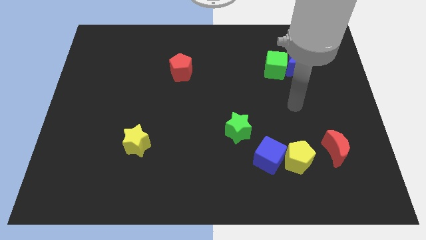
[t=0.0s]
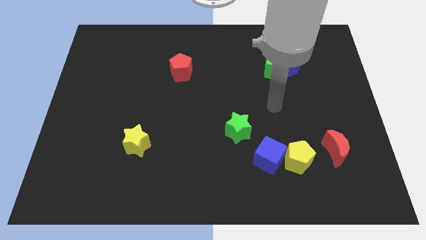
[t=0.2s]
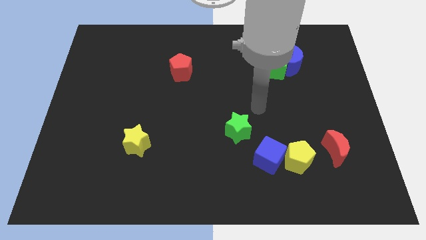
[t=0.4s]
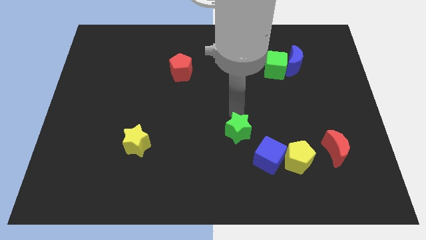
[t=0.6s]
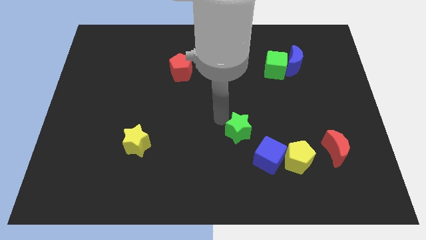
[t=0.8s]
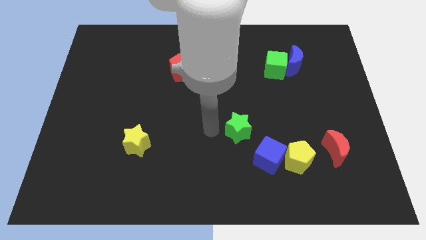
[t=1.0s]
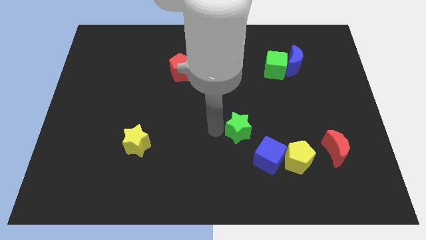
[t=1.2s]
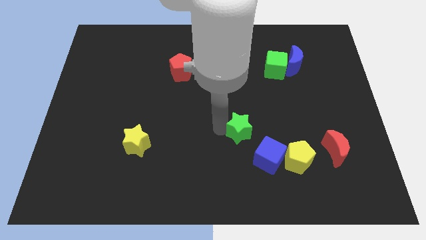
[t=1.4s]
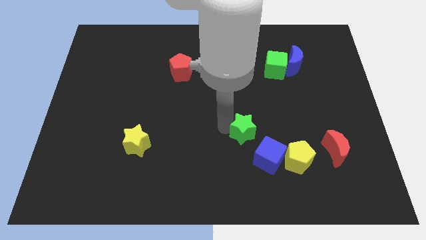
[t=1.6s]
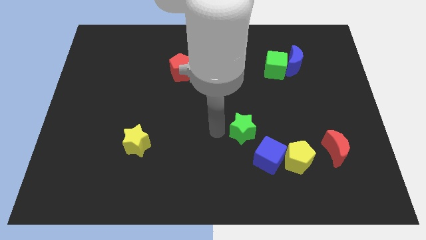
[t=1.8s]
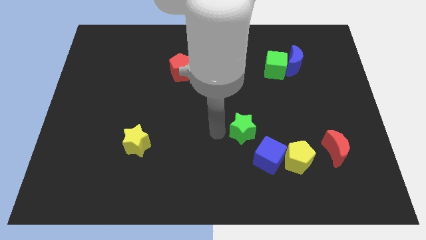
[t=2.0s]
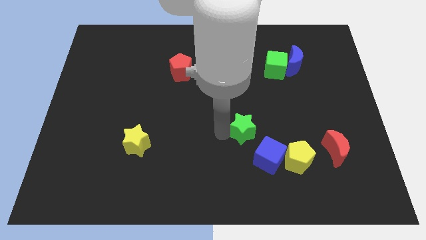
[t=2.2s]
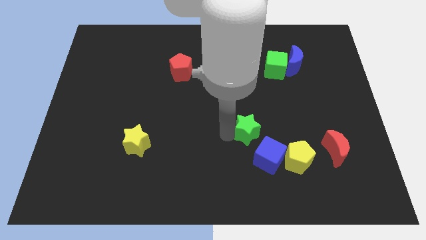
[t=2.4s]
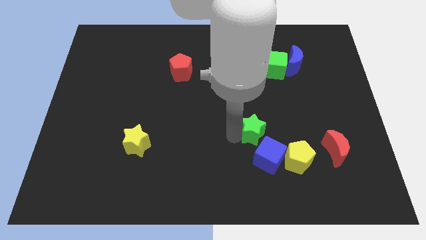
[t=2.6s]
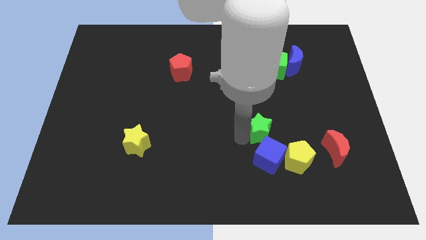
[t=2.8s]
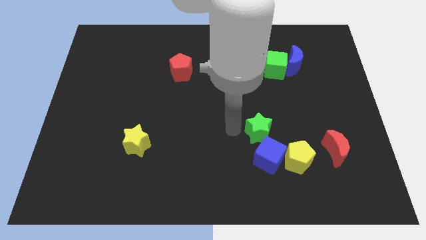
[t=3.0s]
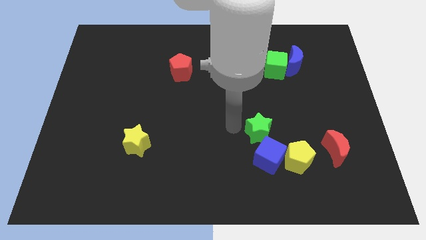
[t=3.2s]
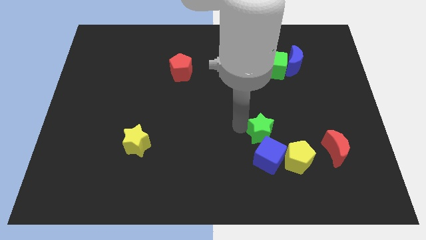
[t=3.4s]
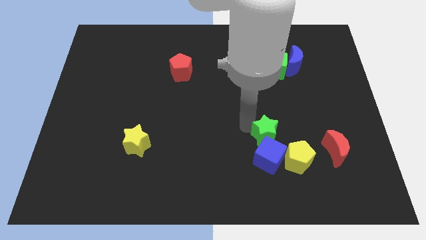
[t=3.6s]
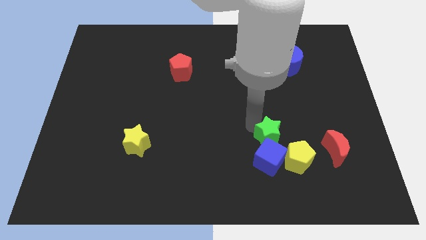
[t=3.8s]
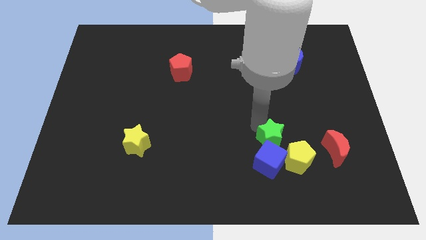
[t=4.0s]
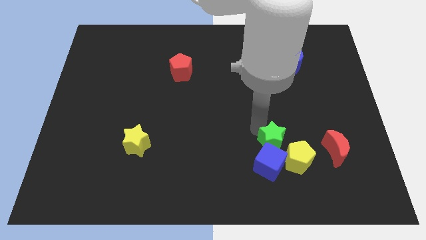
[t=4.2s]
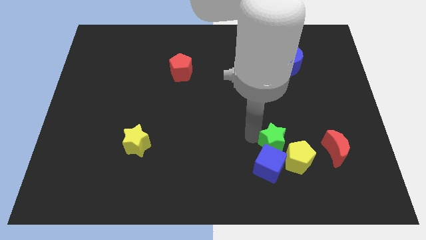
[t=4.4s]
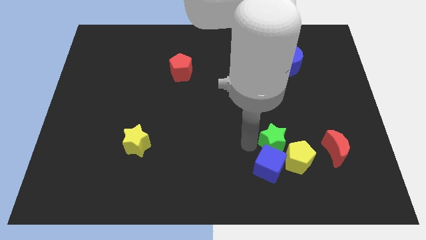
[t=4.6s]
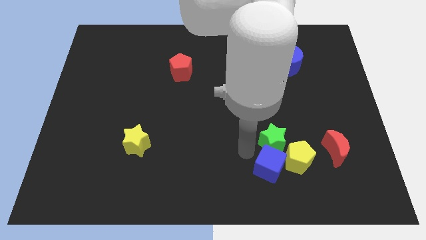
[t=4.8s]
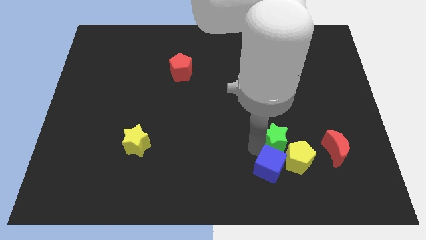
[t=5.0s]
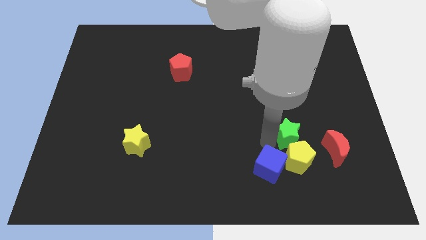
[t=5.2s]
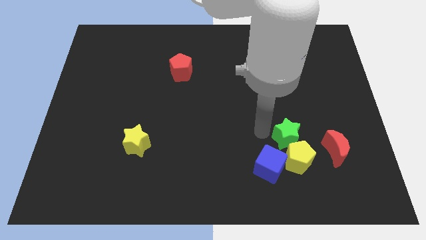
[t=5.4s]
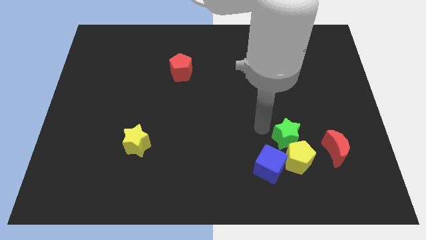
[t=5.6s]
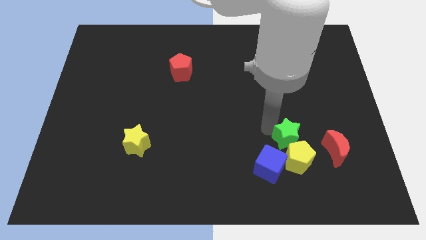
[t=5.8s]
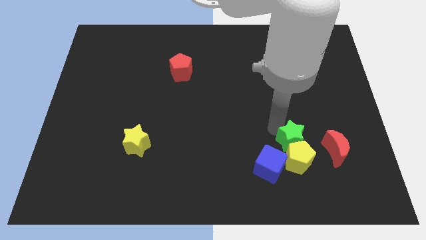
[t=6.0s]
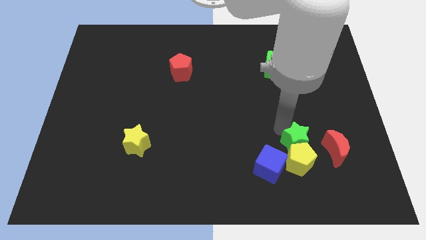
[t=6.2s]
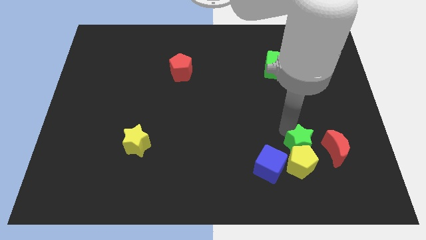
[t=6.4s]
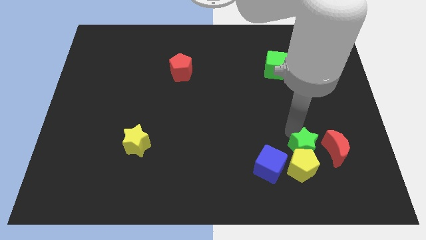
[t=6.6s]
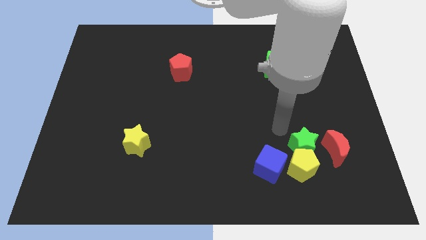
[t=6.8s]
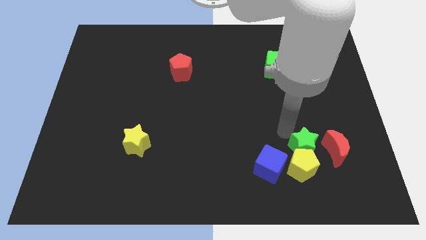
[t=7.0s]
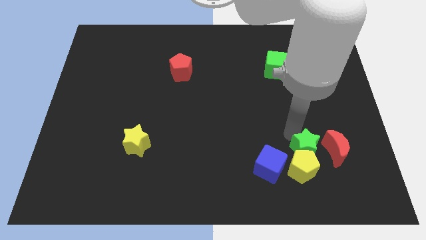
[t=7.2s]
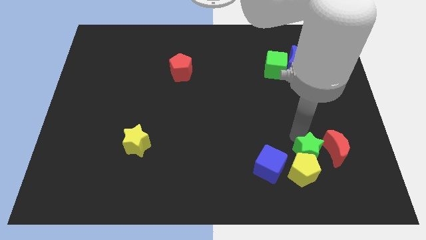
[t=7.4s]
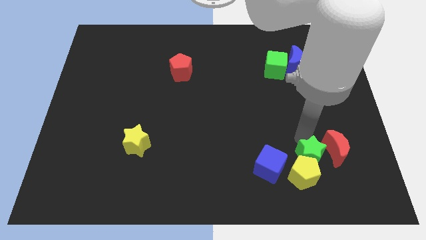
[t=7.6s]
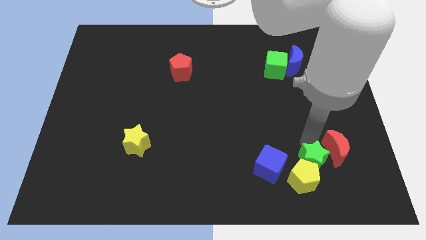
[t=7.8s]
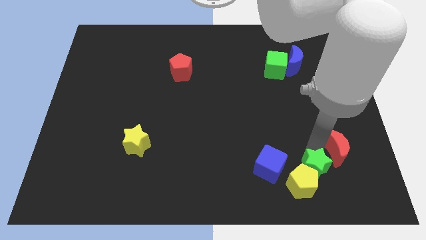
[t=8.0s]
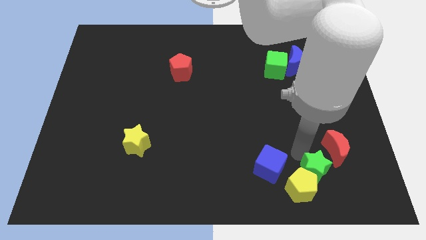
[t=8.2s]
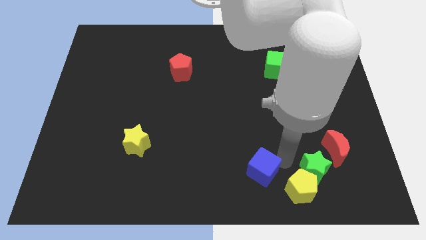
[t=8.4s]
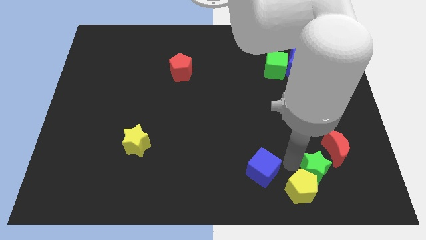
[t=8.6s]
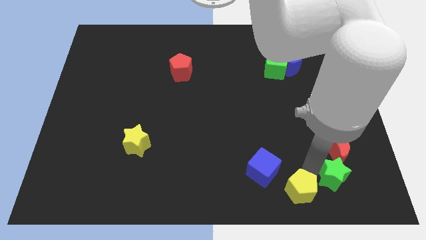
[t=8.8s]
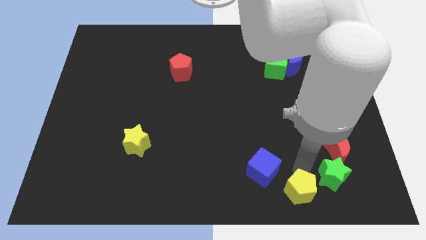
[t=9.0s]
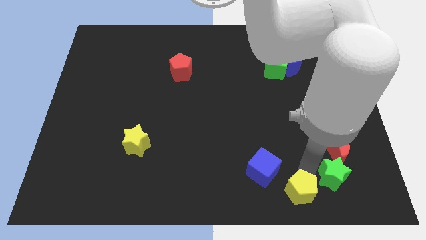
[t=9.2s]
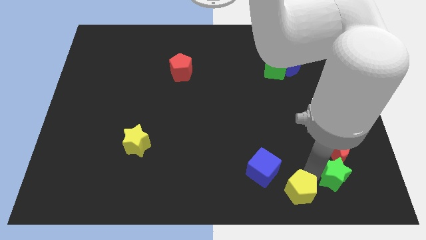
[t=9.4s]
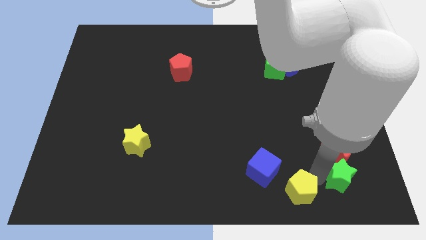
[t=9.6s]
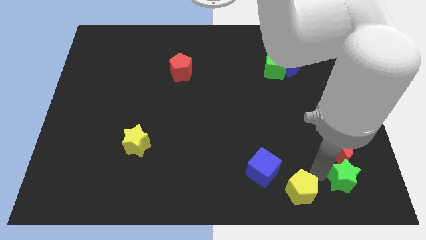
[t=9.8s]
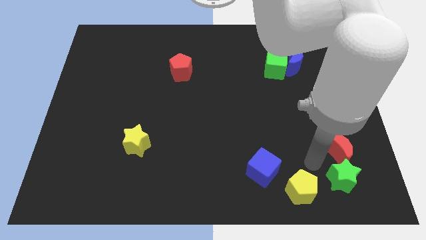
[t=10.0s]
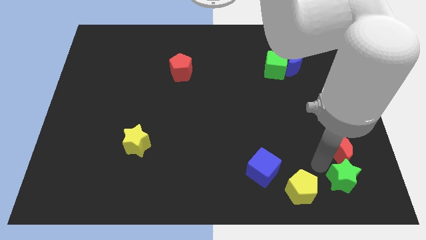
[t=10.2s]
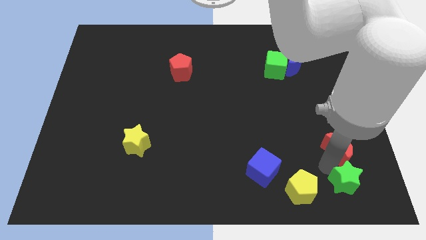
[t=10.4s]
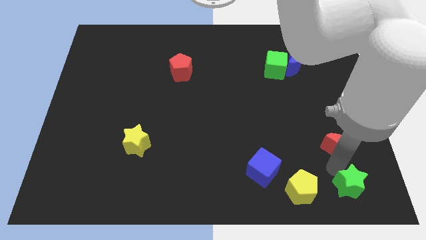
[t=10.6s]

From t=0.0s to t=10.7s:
slide the green star to the bottom right corner

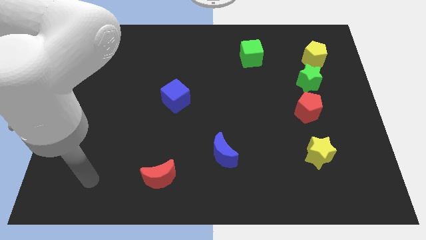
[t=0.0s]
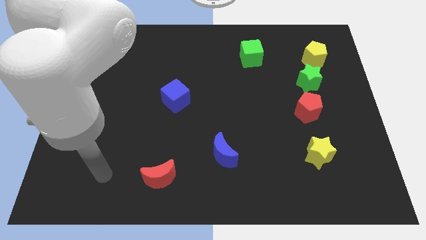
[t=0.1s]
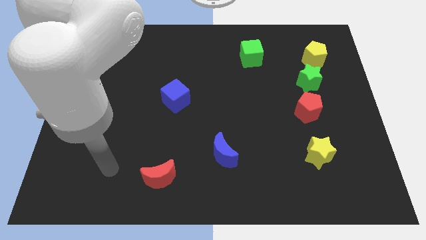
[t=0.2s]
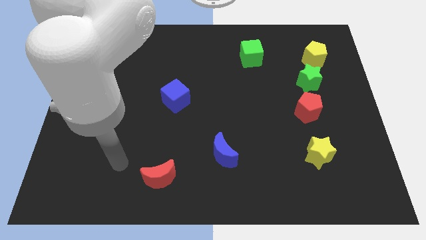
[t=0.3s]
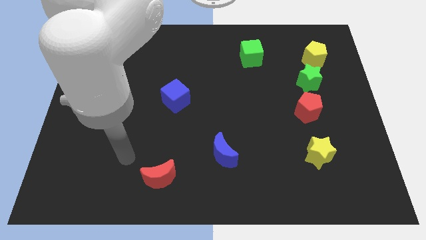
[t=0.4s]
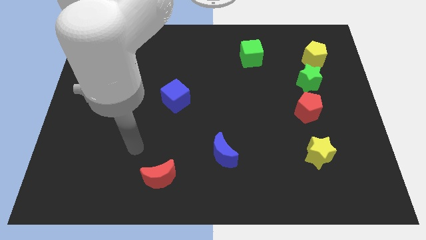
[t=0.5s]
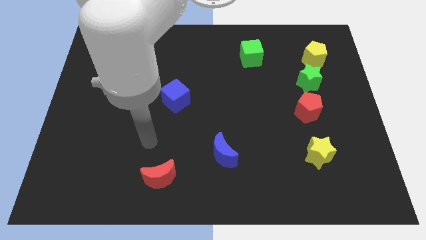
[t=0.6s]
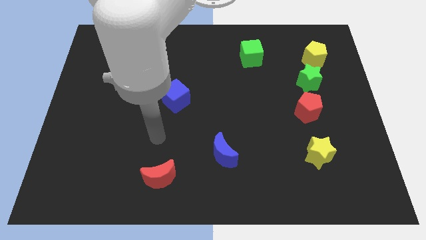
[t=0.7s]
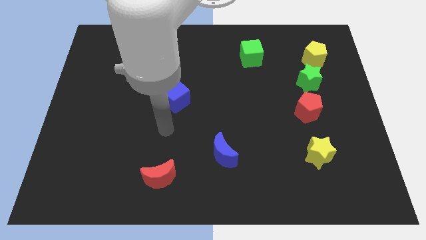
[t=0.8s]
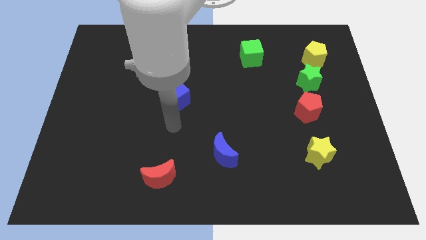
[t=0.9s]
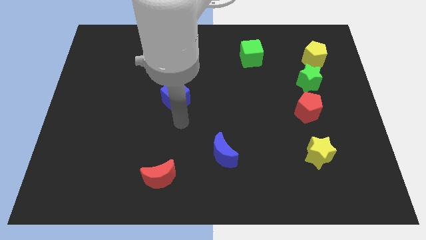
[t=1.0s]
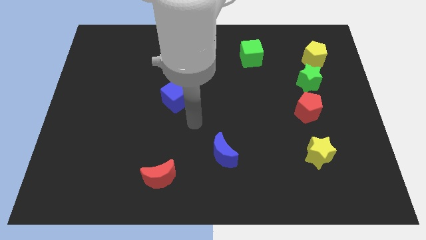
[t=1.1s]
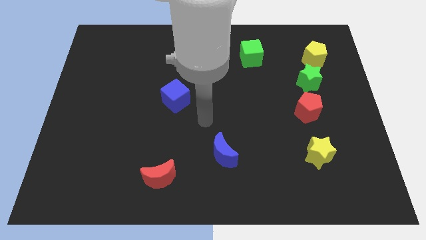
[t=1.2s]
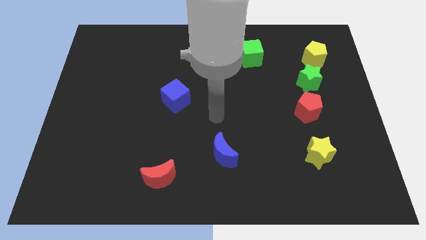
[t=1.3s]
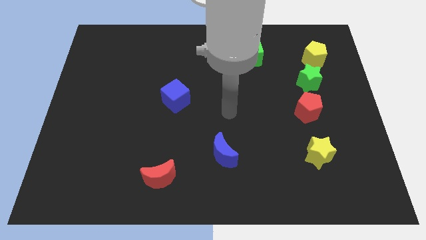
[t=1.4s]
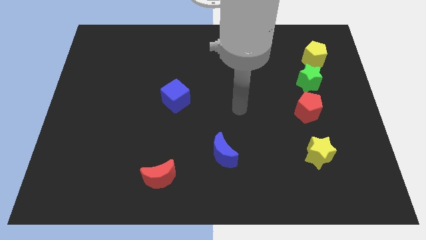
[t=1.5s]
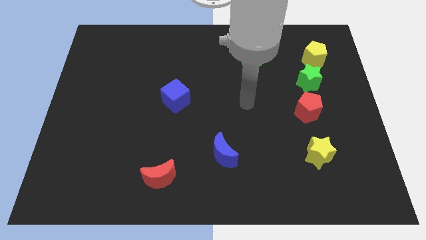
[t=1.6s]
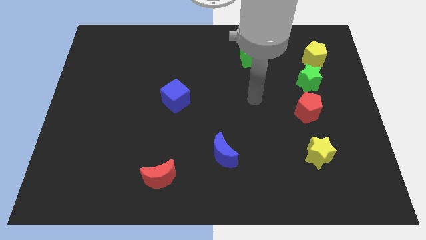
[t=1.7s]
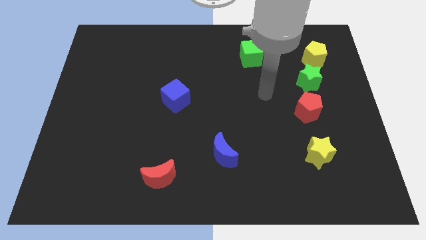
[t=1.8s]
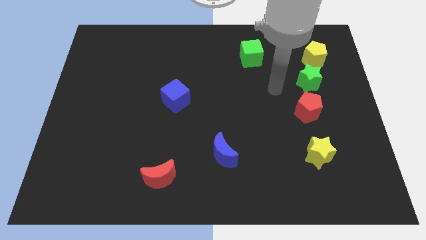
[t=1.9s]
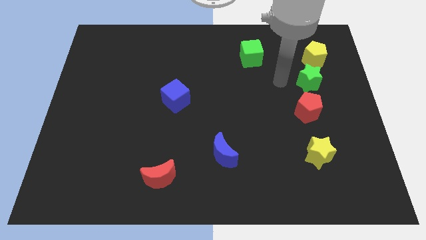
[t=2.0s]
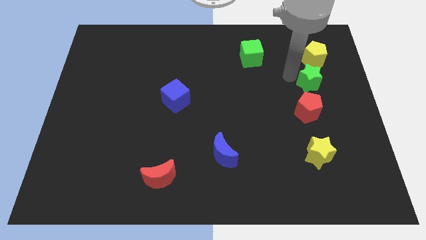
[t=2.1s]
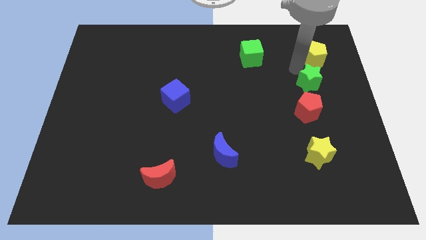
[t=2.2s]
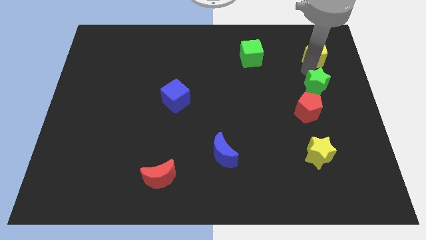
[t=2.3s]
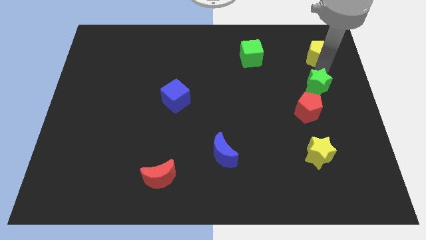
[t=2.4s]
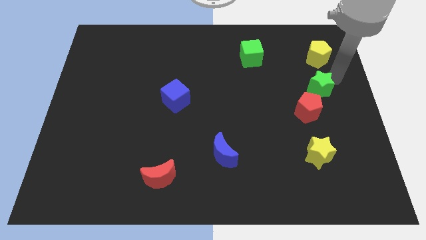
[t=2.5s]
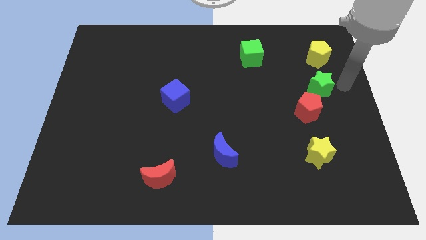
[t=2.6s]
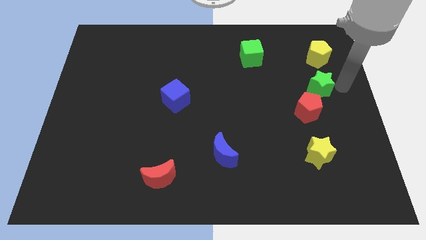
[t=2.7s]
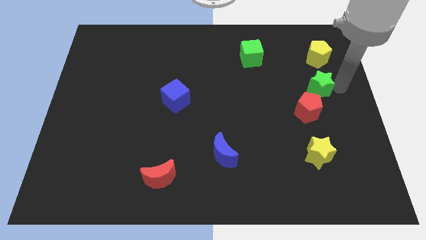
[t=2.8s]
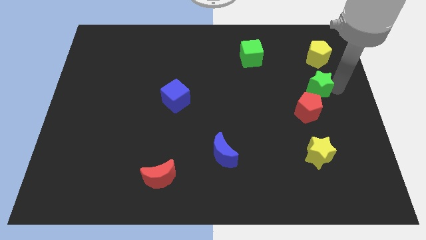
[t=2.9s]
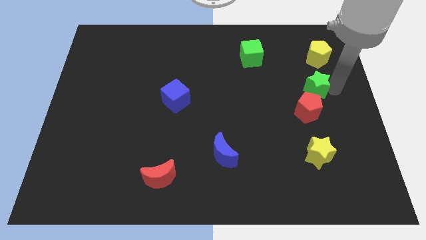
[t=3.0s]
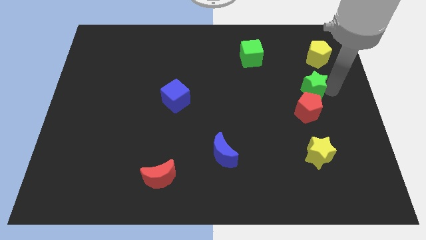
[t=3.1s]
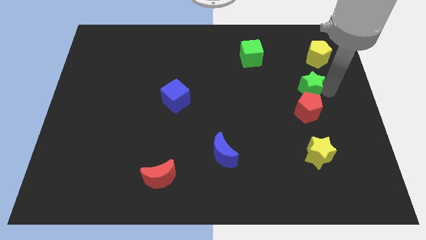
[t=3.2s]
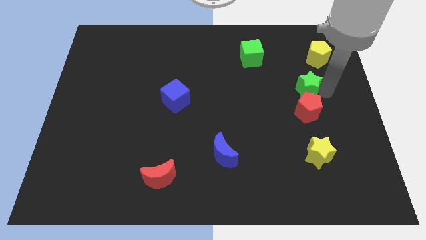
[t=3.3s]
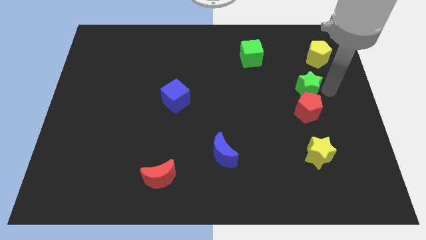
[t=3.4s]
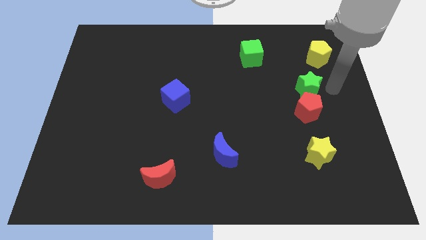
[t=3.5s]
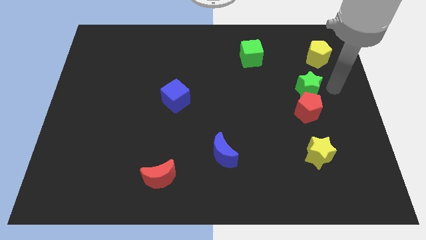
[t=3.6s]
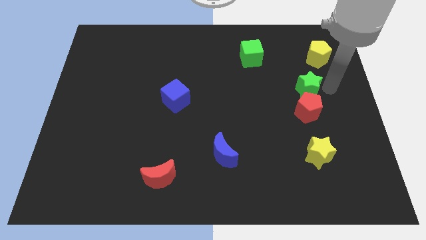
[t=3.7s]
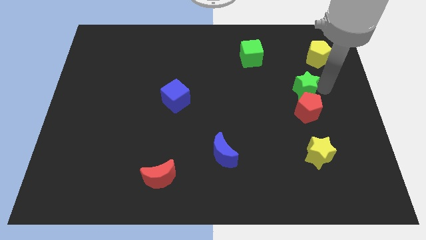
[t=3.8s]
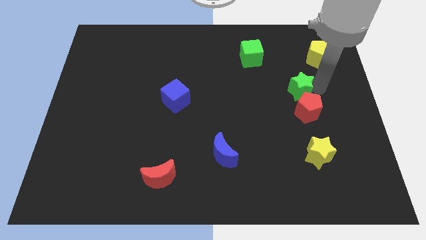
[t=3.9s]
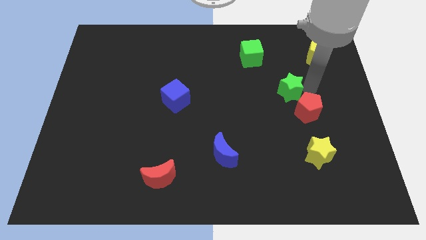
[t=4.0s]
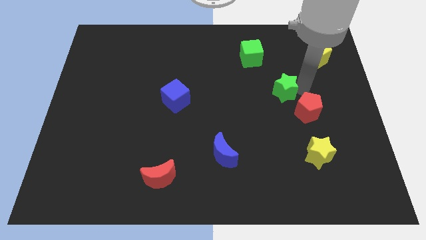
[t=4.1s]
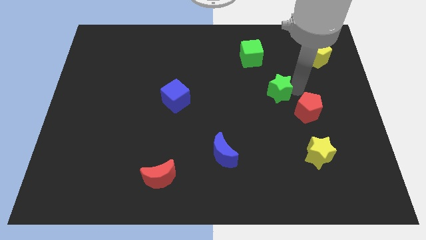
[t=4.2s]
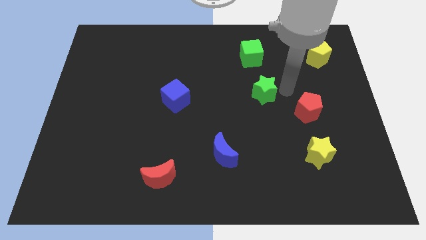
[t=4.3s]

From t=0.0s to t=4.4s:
move the green star to the middle
